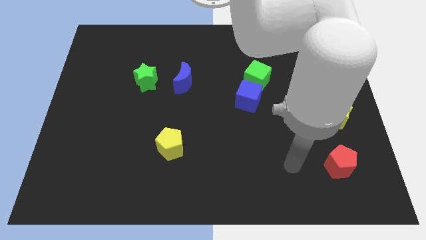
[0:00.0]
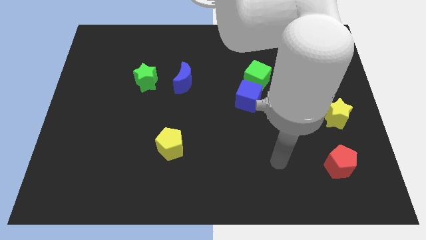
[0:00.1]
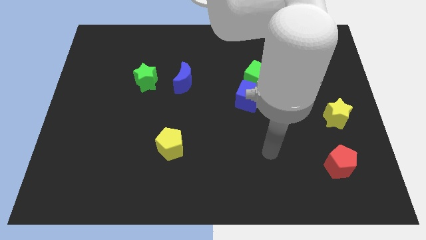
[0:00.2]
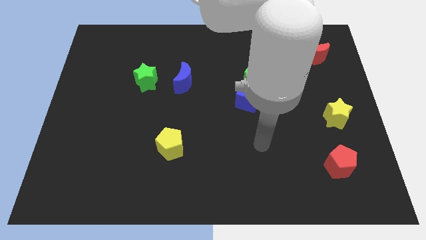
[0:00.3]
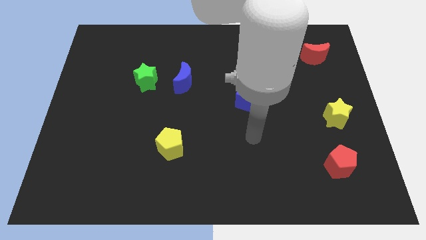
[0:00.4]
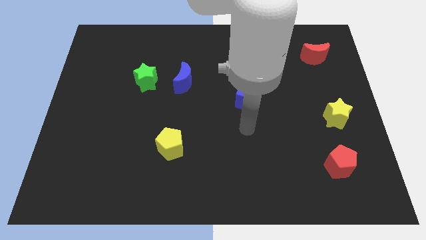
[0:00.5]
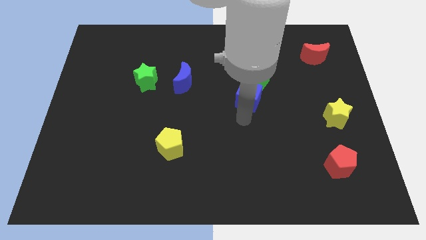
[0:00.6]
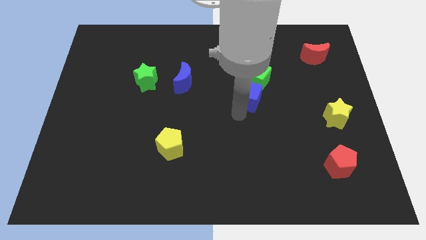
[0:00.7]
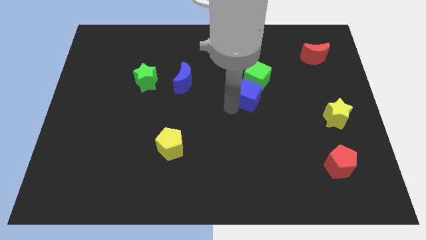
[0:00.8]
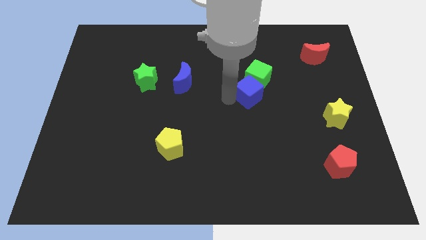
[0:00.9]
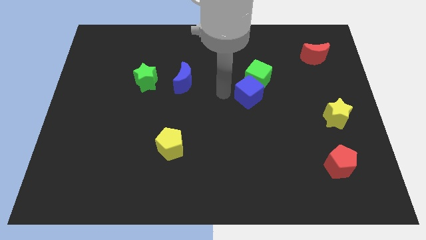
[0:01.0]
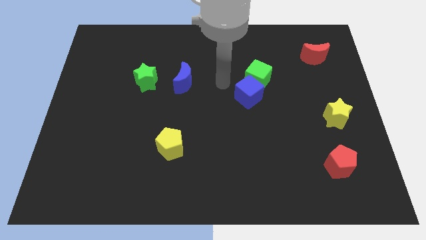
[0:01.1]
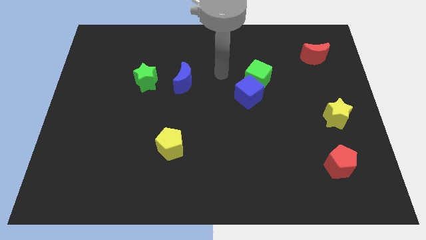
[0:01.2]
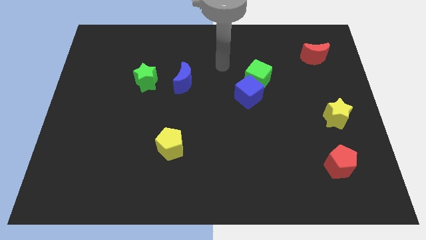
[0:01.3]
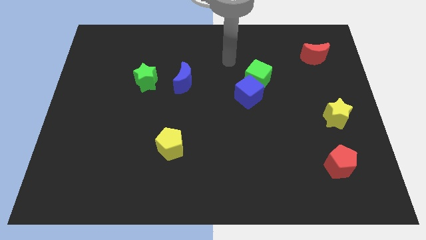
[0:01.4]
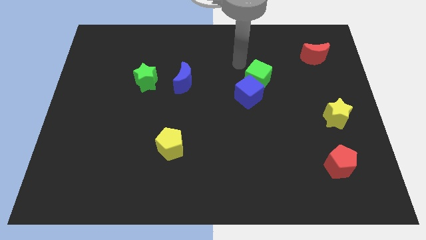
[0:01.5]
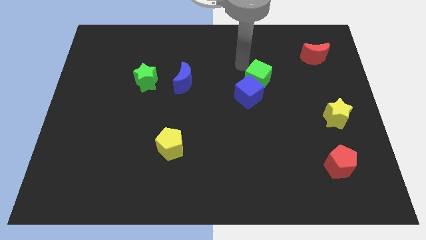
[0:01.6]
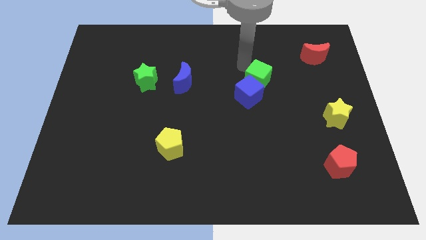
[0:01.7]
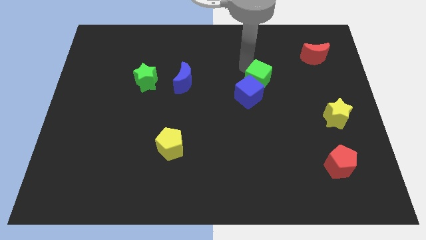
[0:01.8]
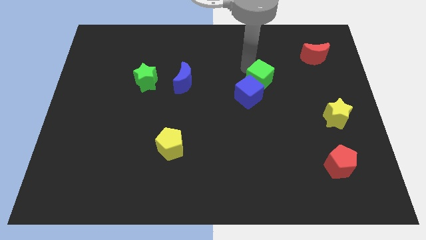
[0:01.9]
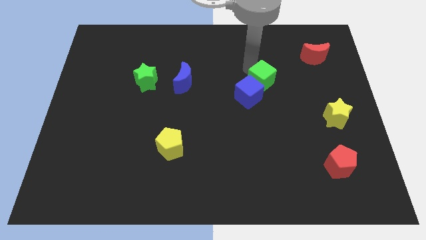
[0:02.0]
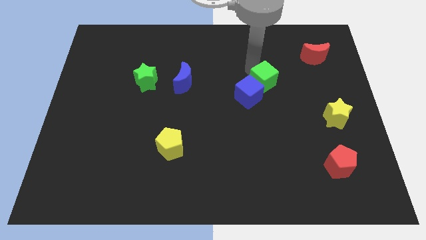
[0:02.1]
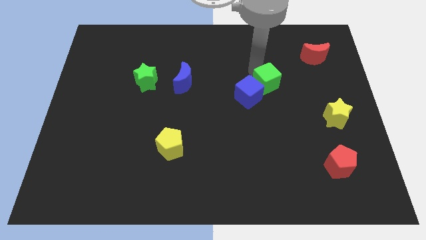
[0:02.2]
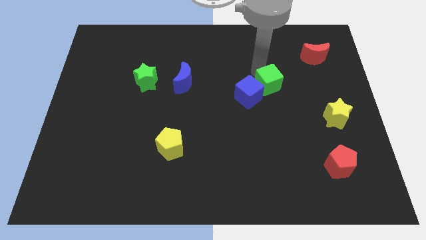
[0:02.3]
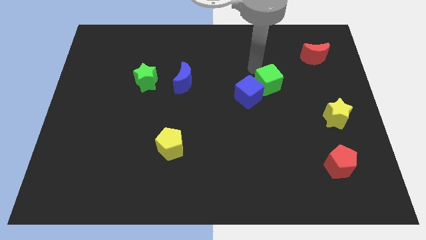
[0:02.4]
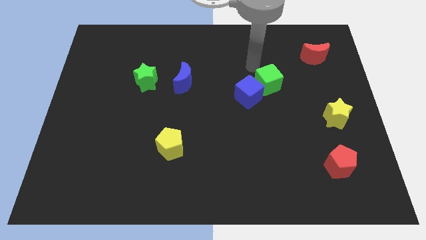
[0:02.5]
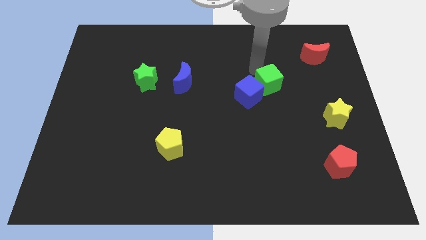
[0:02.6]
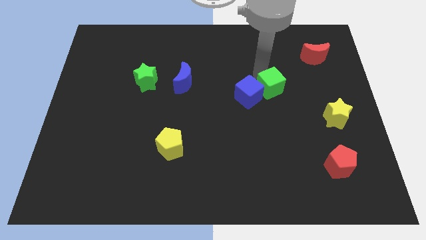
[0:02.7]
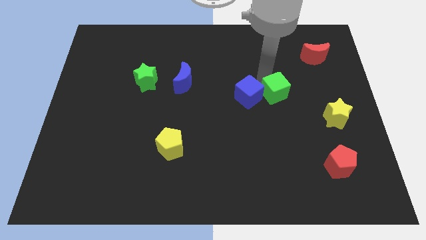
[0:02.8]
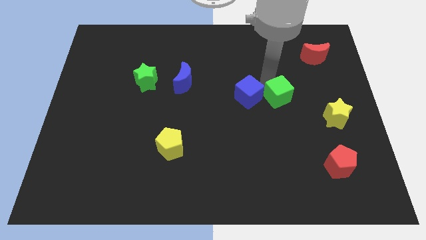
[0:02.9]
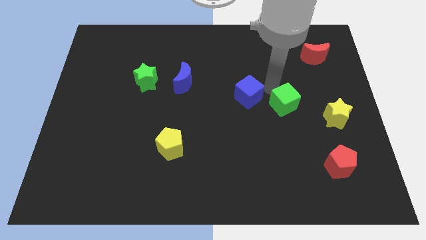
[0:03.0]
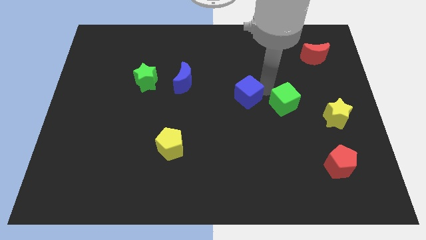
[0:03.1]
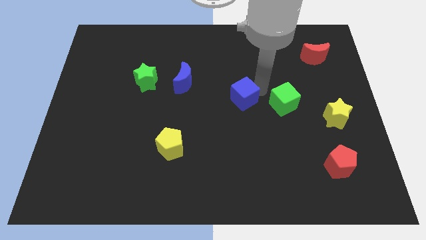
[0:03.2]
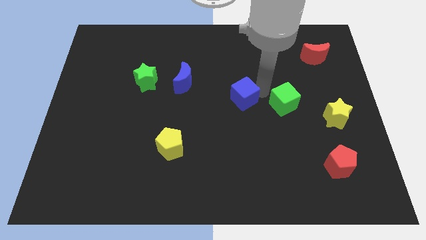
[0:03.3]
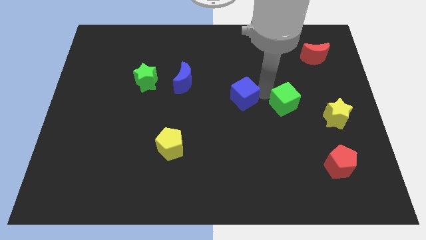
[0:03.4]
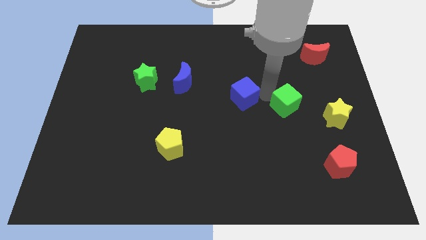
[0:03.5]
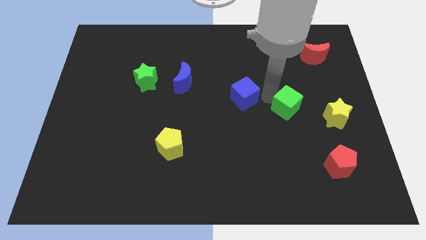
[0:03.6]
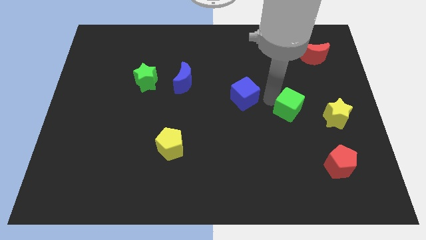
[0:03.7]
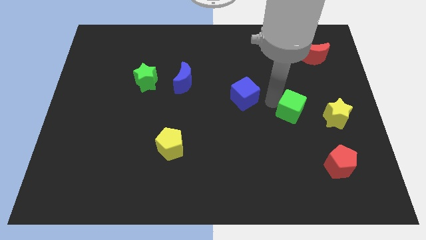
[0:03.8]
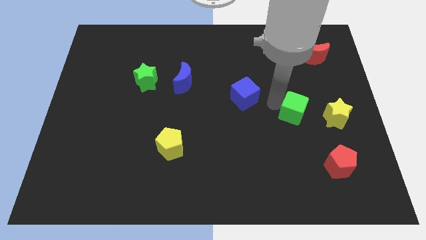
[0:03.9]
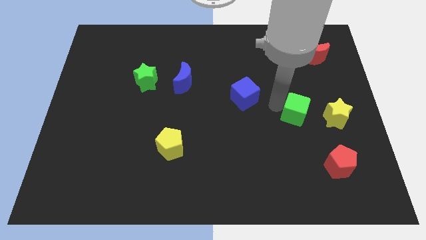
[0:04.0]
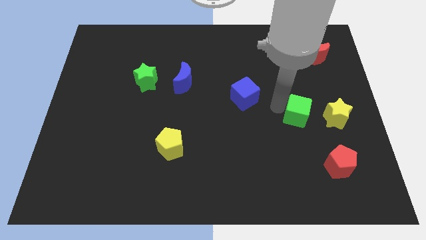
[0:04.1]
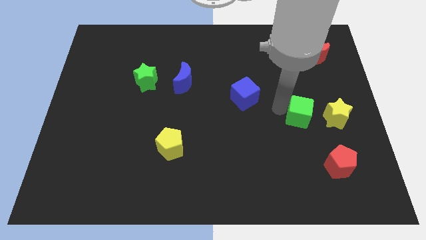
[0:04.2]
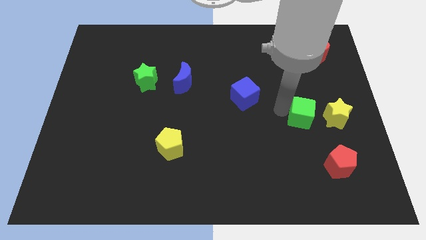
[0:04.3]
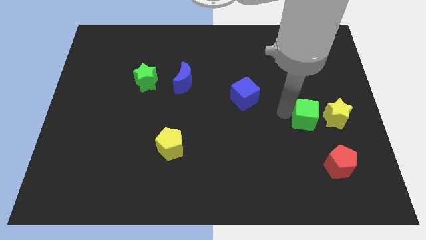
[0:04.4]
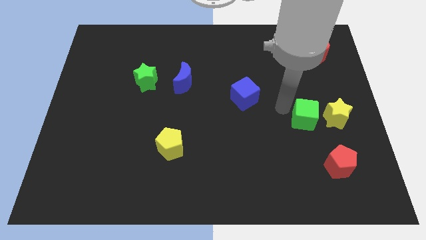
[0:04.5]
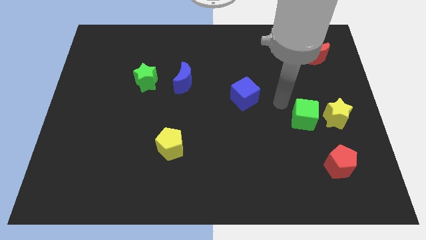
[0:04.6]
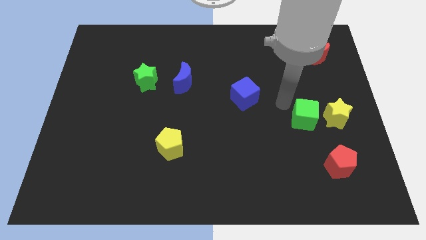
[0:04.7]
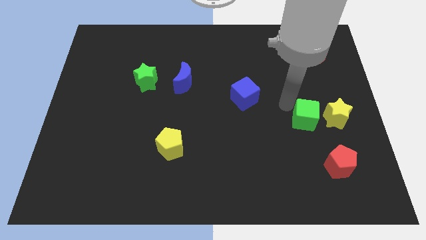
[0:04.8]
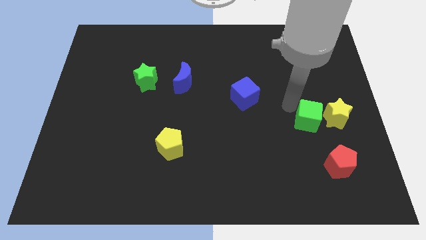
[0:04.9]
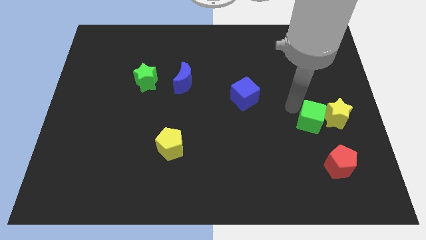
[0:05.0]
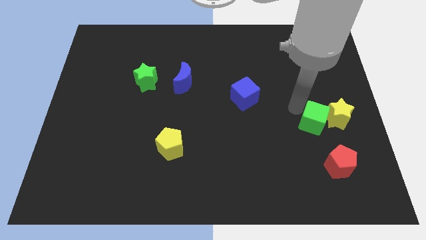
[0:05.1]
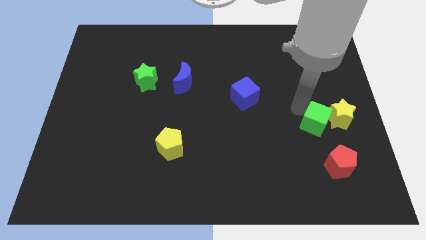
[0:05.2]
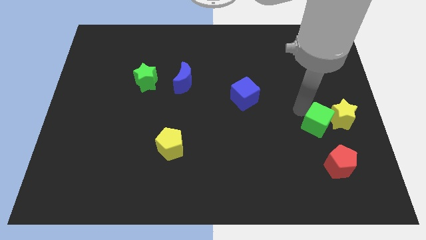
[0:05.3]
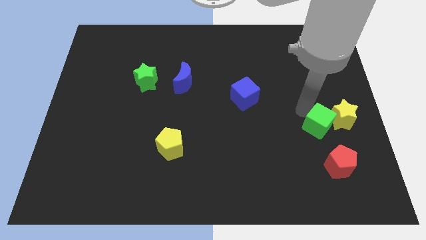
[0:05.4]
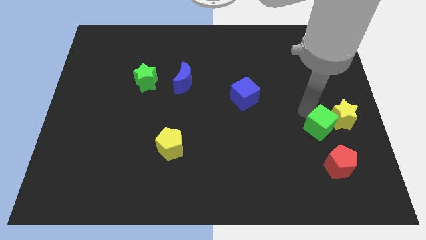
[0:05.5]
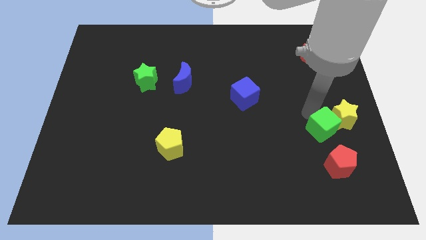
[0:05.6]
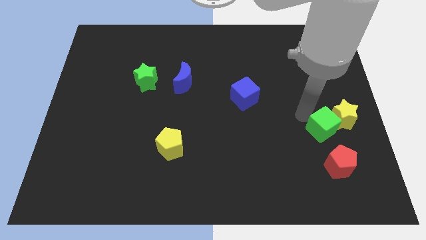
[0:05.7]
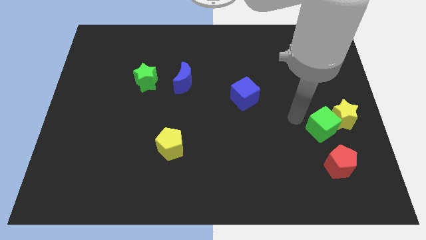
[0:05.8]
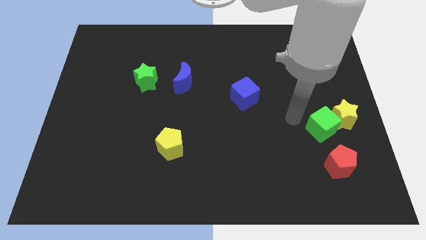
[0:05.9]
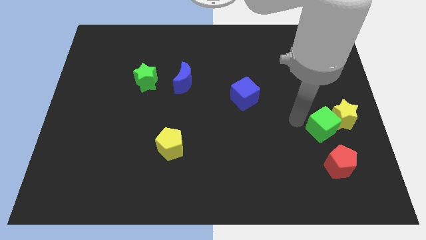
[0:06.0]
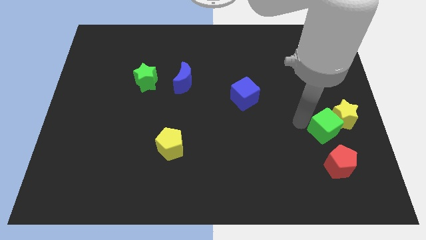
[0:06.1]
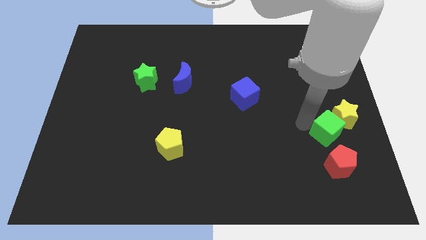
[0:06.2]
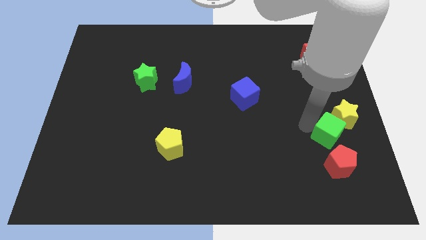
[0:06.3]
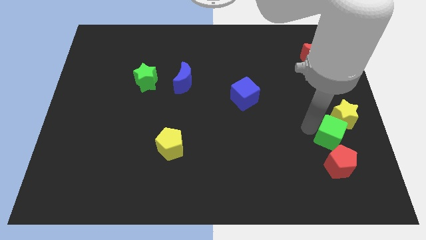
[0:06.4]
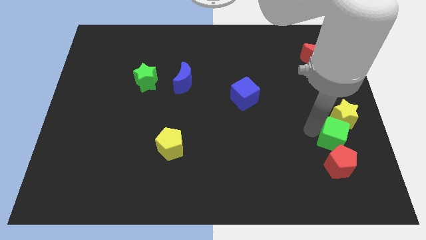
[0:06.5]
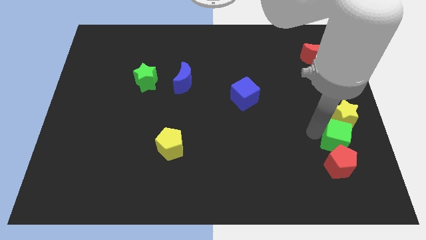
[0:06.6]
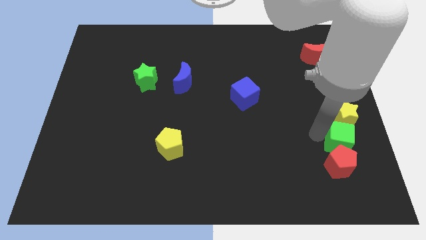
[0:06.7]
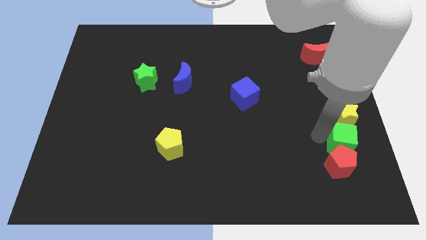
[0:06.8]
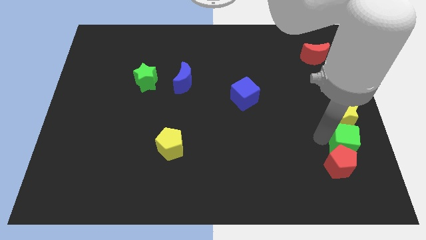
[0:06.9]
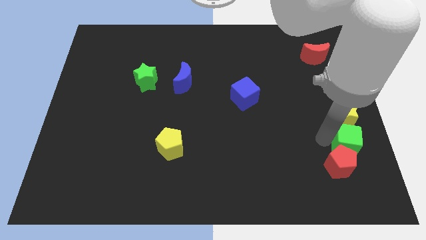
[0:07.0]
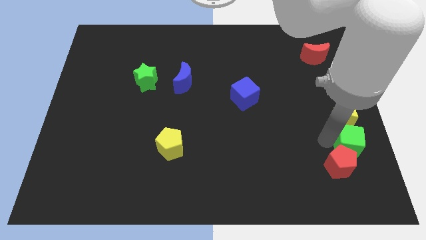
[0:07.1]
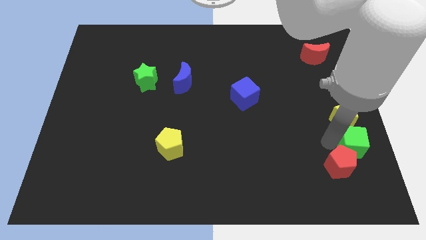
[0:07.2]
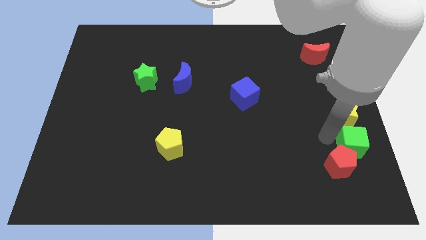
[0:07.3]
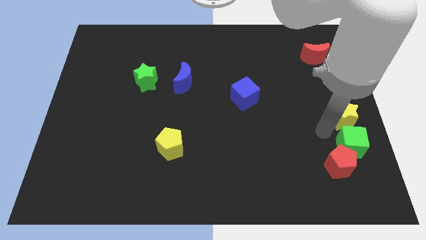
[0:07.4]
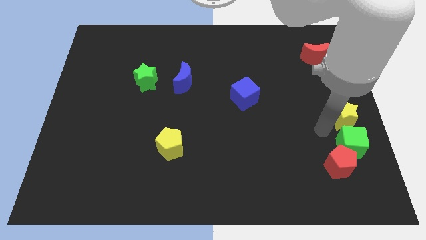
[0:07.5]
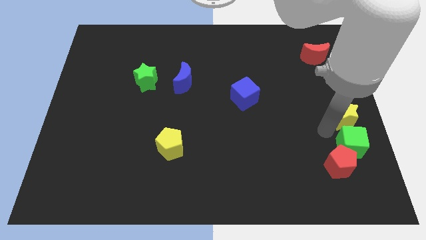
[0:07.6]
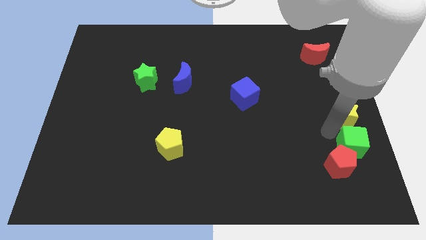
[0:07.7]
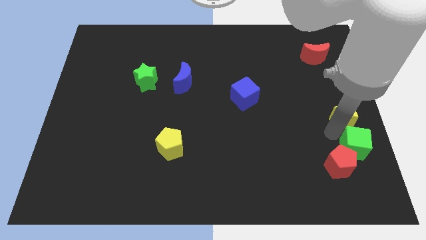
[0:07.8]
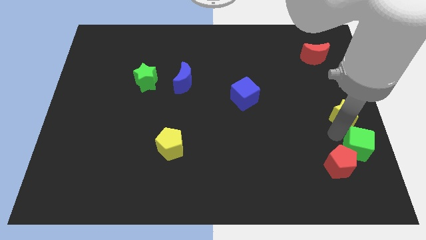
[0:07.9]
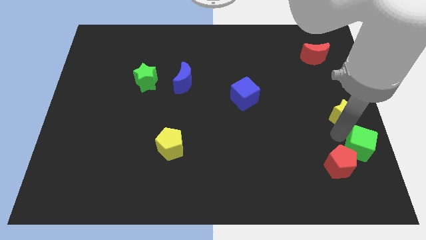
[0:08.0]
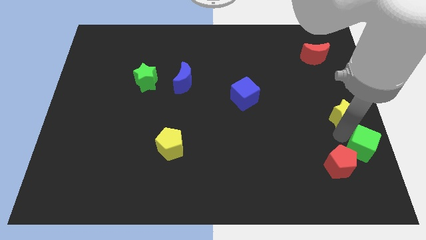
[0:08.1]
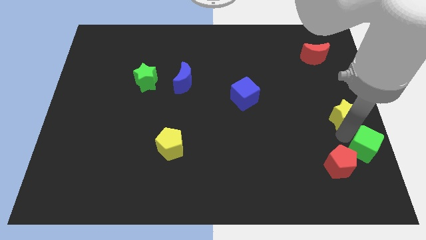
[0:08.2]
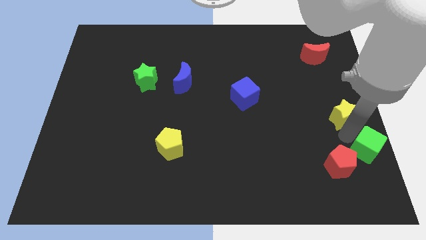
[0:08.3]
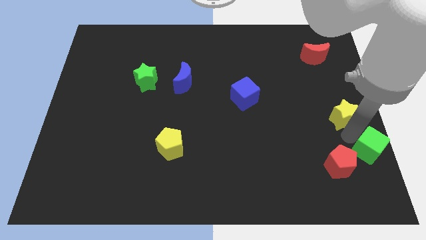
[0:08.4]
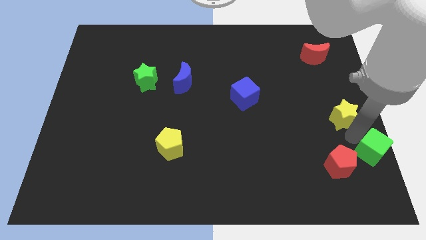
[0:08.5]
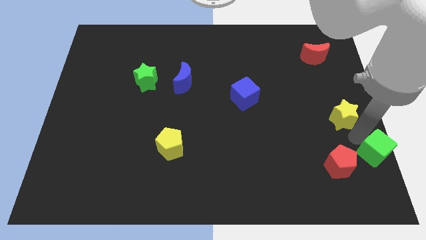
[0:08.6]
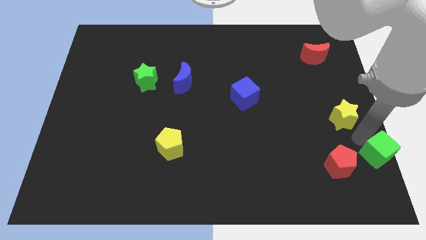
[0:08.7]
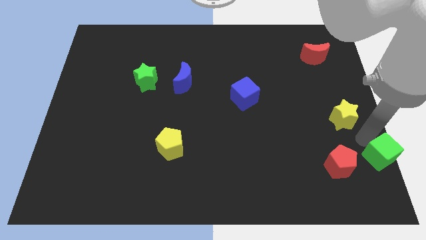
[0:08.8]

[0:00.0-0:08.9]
push the green cube to the bottom right
